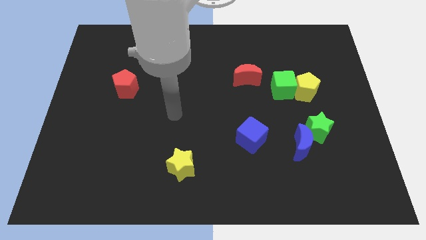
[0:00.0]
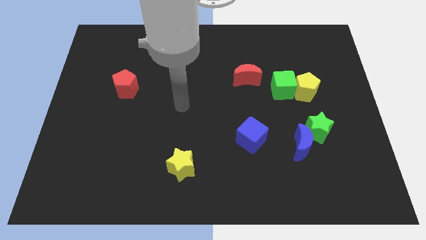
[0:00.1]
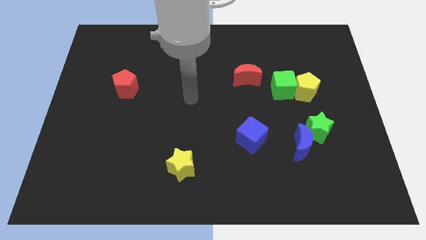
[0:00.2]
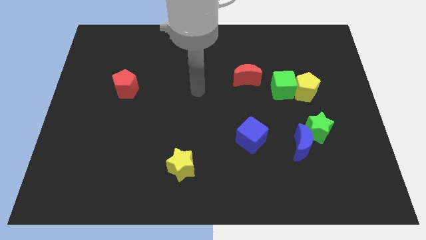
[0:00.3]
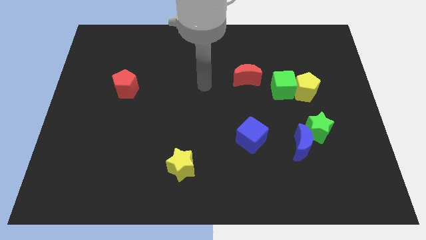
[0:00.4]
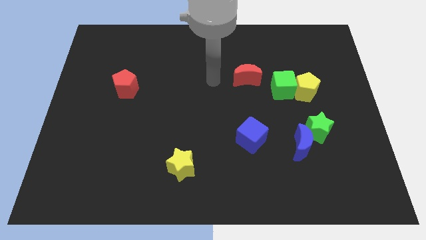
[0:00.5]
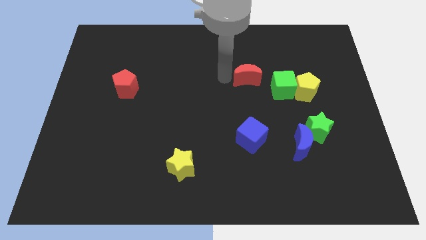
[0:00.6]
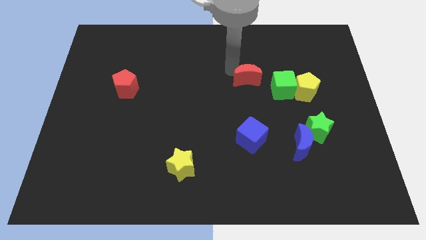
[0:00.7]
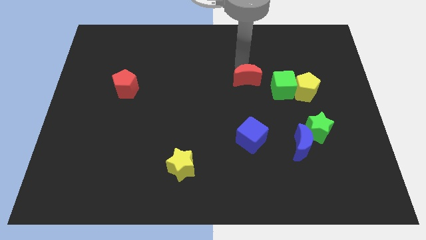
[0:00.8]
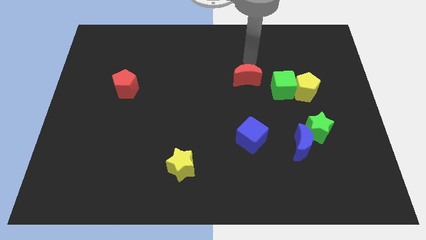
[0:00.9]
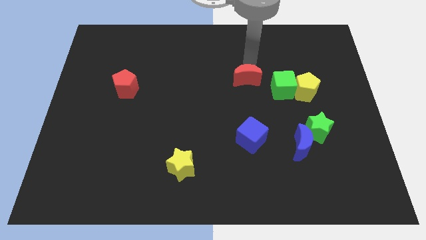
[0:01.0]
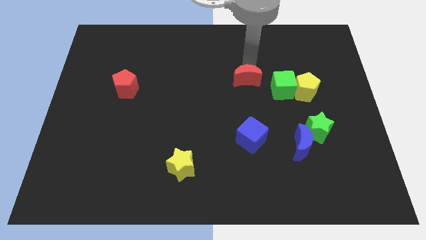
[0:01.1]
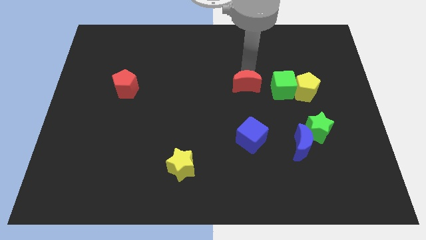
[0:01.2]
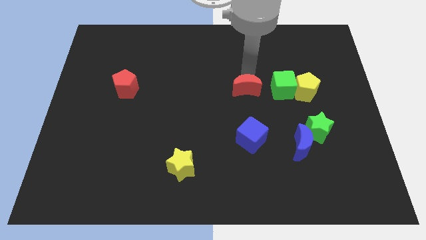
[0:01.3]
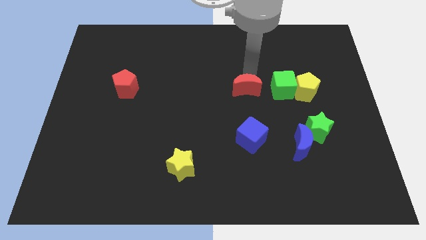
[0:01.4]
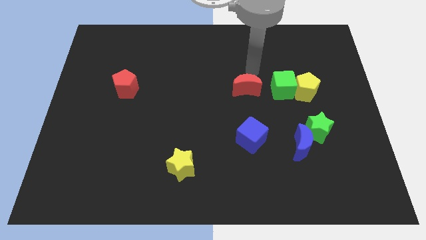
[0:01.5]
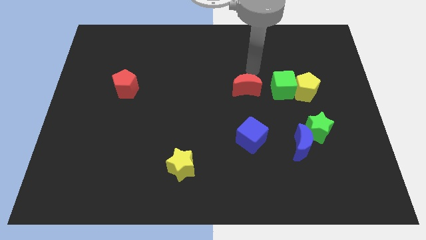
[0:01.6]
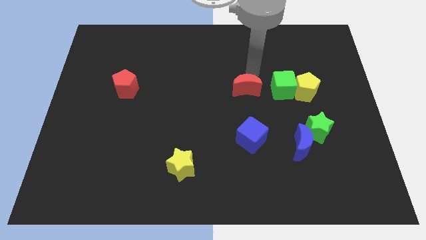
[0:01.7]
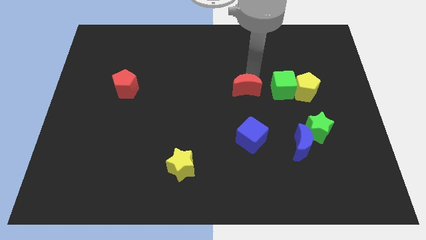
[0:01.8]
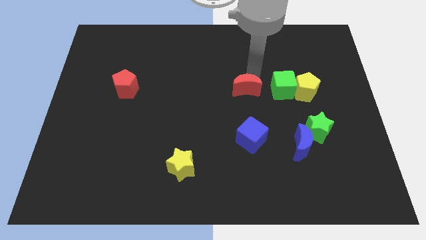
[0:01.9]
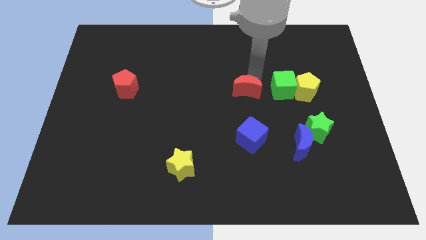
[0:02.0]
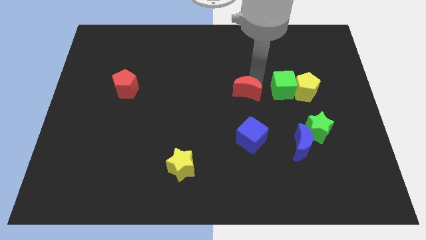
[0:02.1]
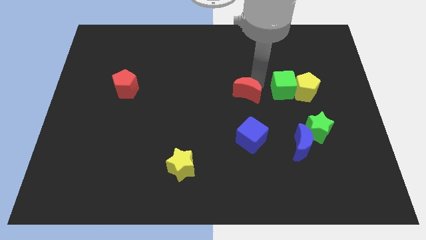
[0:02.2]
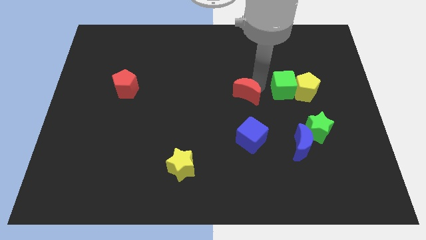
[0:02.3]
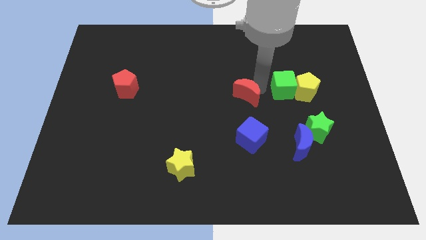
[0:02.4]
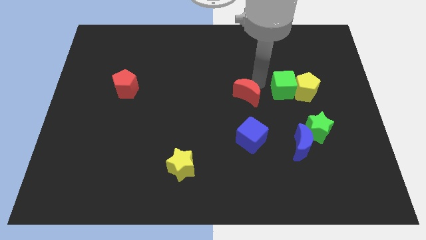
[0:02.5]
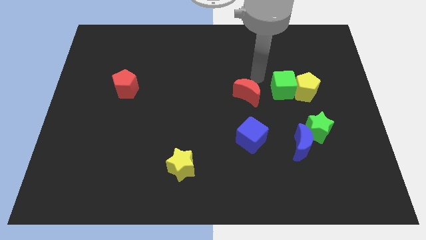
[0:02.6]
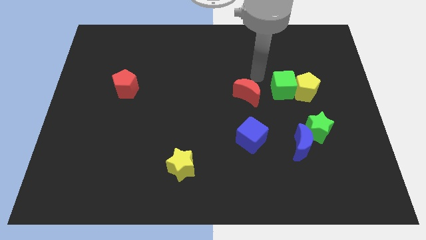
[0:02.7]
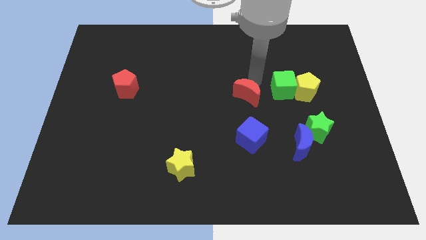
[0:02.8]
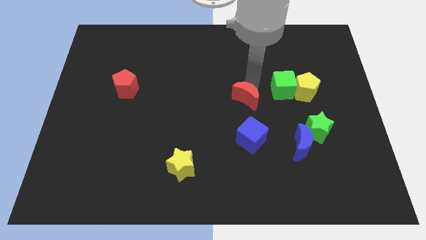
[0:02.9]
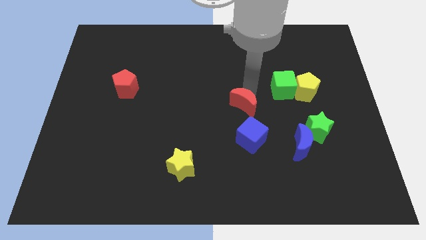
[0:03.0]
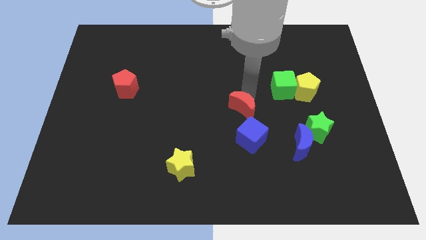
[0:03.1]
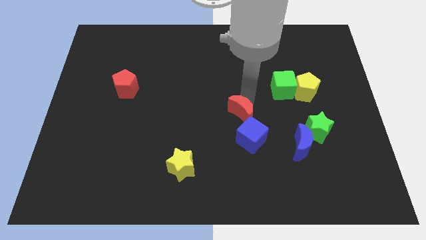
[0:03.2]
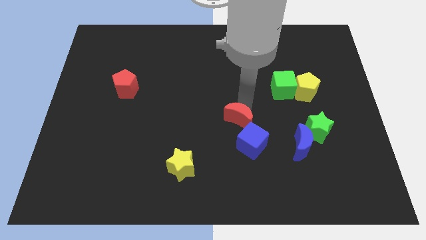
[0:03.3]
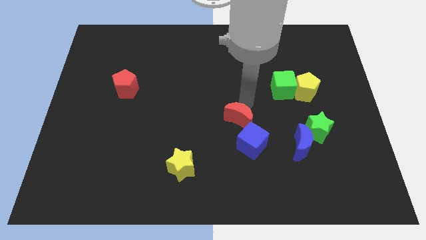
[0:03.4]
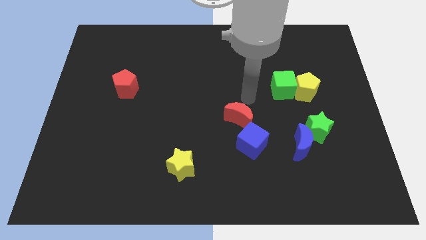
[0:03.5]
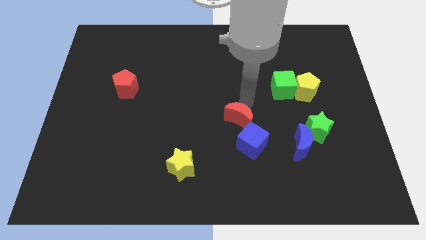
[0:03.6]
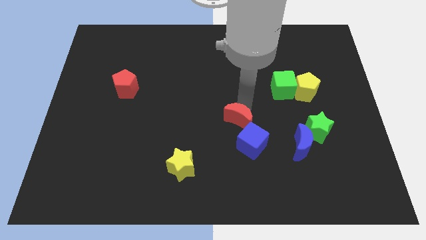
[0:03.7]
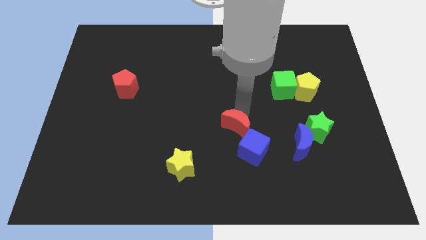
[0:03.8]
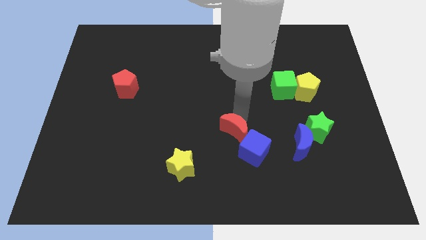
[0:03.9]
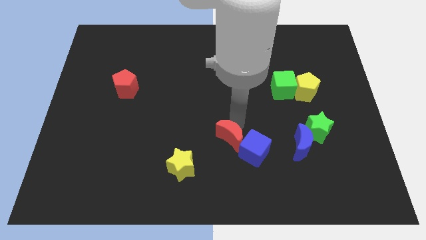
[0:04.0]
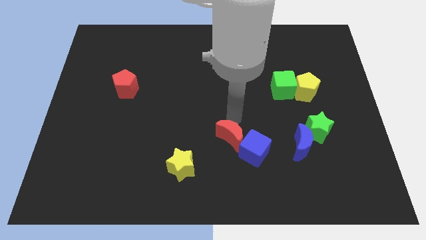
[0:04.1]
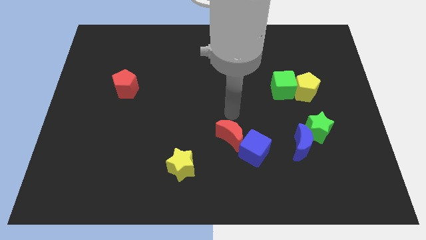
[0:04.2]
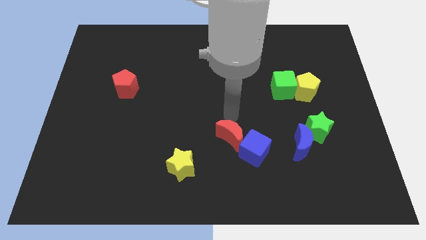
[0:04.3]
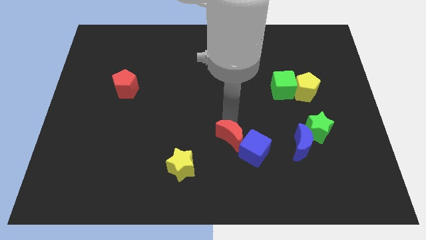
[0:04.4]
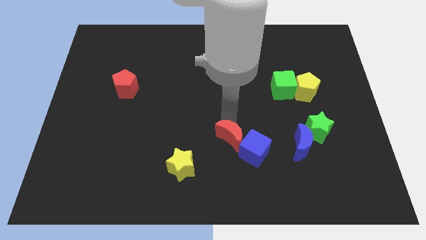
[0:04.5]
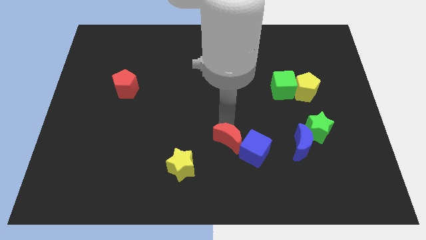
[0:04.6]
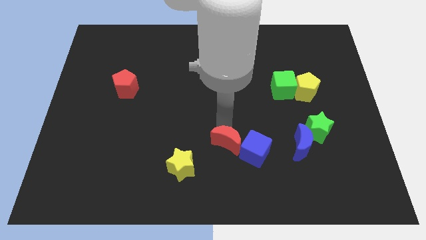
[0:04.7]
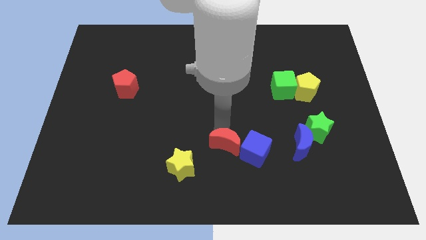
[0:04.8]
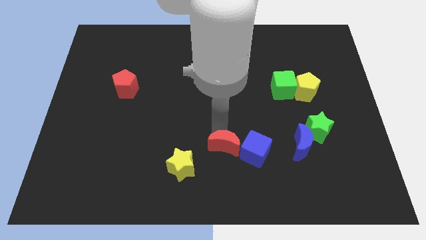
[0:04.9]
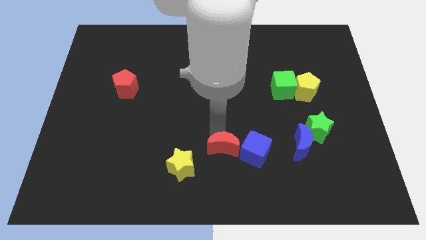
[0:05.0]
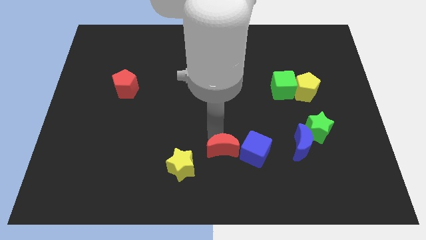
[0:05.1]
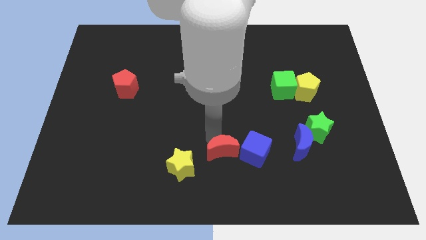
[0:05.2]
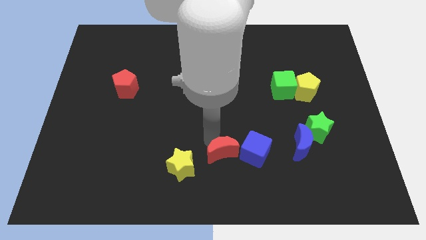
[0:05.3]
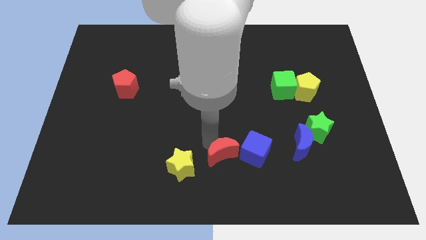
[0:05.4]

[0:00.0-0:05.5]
move the red moon diagonally down and to the left of the blue cube

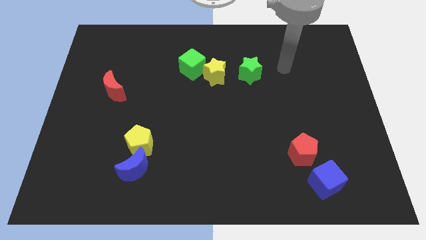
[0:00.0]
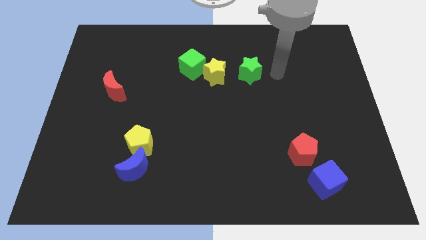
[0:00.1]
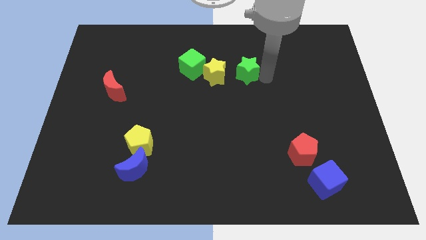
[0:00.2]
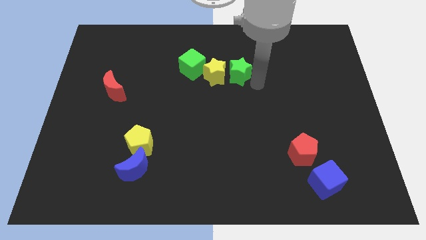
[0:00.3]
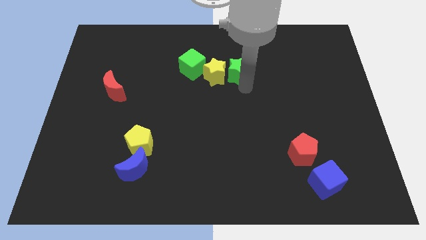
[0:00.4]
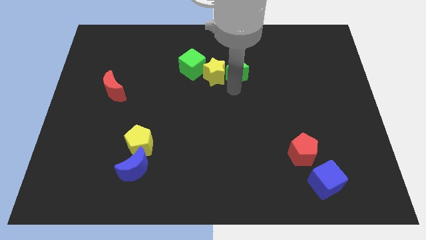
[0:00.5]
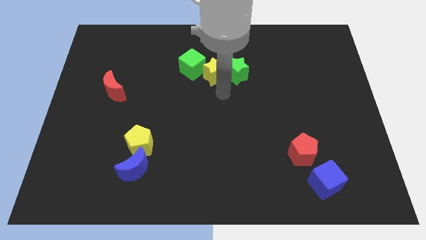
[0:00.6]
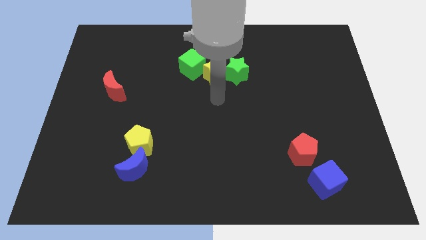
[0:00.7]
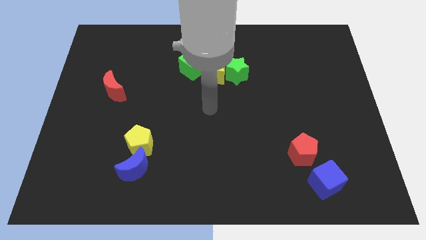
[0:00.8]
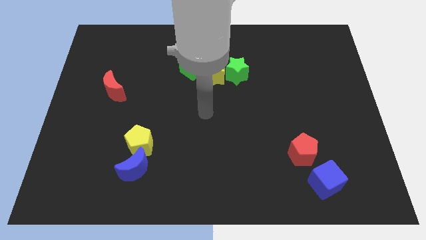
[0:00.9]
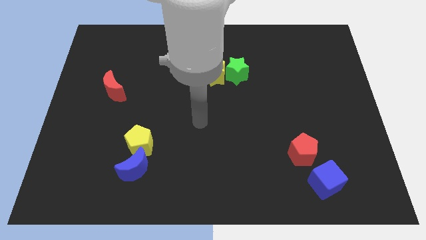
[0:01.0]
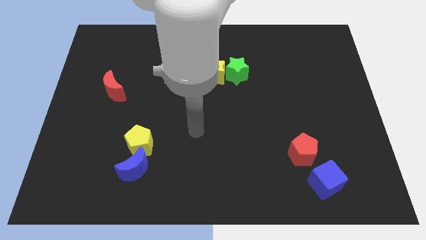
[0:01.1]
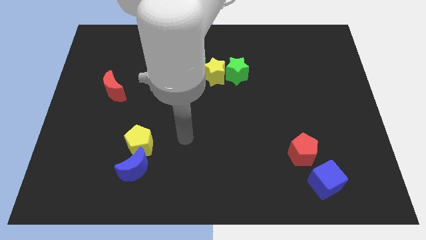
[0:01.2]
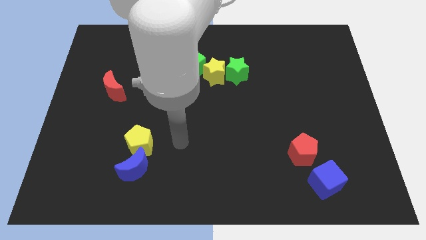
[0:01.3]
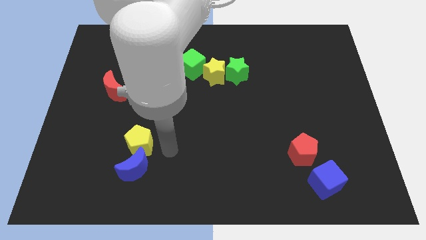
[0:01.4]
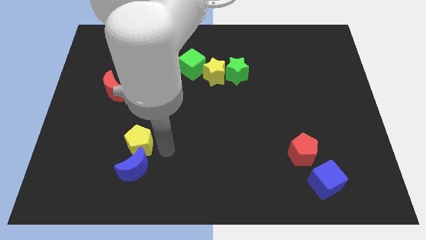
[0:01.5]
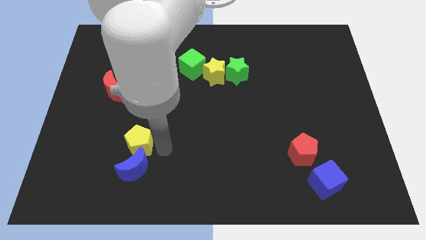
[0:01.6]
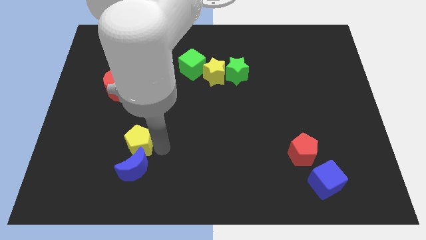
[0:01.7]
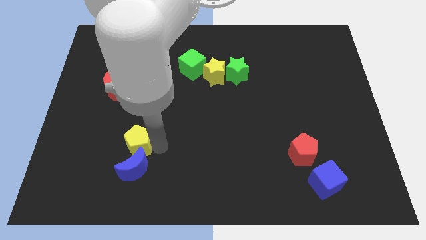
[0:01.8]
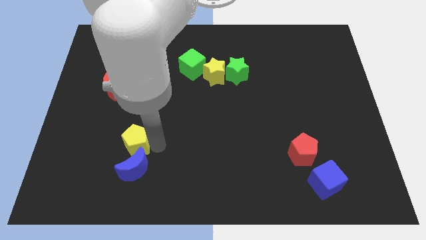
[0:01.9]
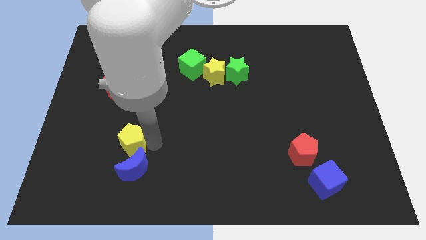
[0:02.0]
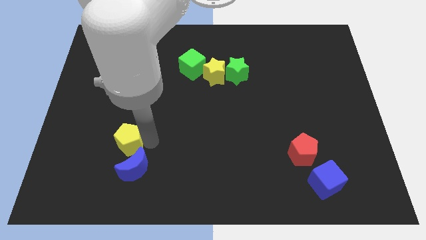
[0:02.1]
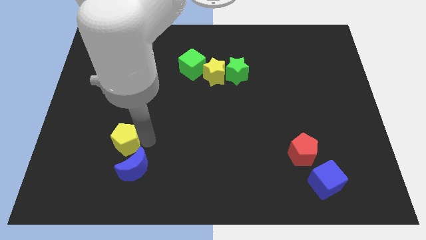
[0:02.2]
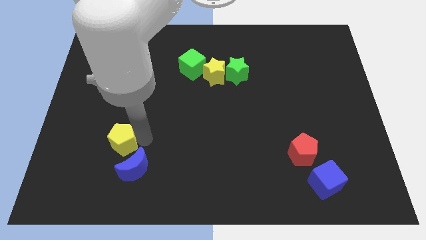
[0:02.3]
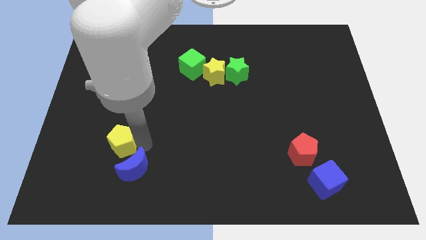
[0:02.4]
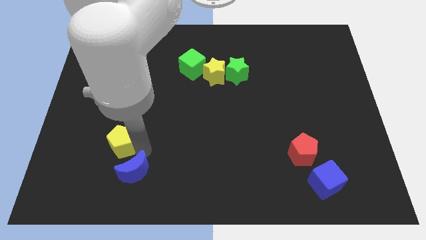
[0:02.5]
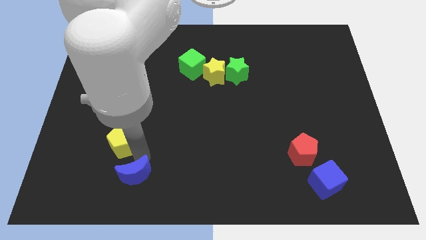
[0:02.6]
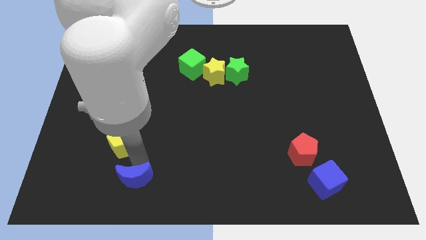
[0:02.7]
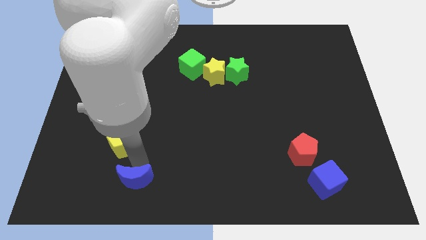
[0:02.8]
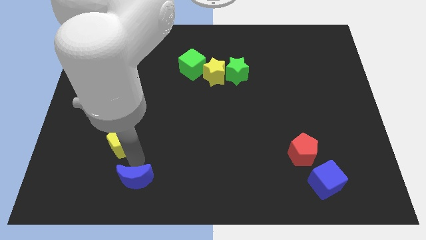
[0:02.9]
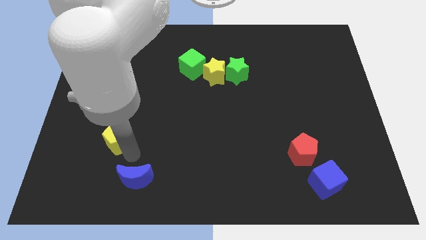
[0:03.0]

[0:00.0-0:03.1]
move the yellow pentagon to the bottom of the red moon
